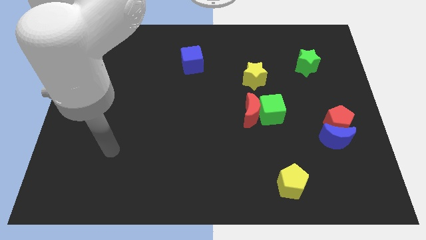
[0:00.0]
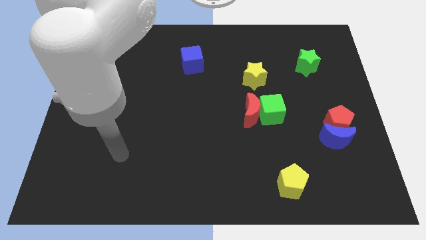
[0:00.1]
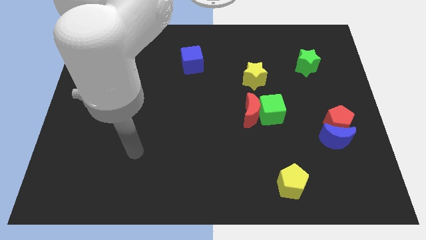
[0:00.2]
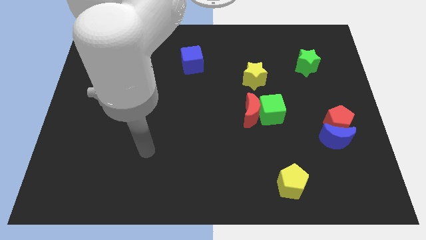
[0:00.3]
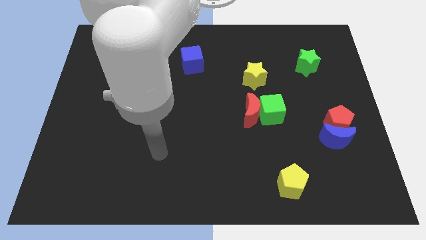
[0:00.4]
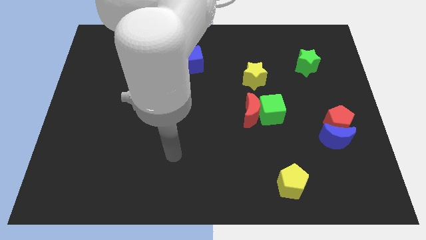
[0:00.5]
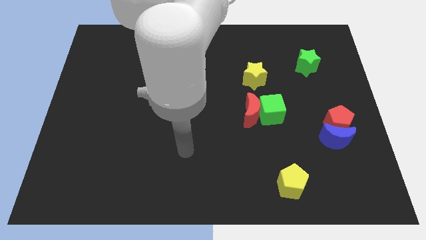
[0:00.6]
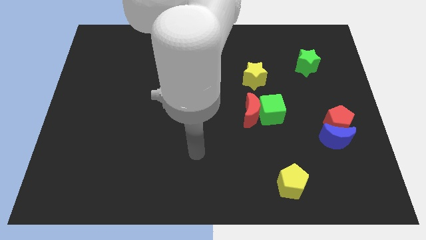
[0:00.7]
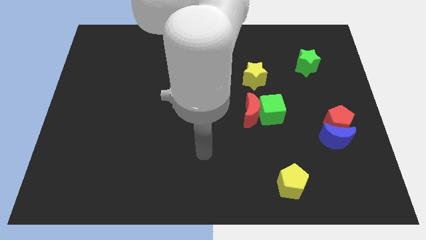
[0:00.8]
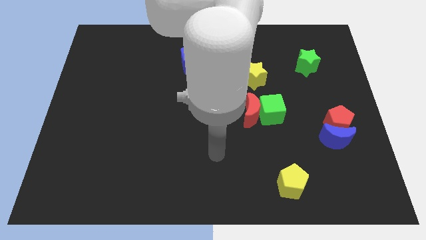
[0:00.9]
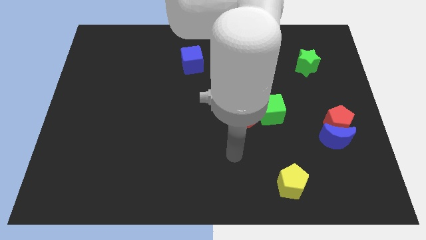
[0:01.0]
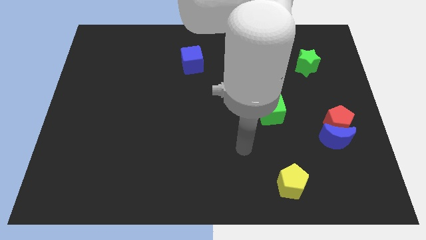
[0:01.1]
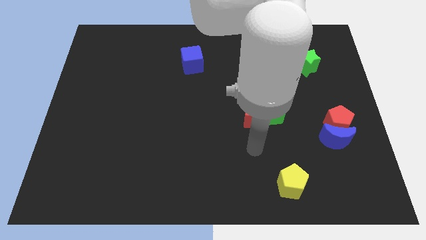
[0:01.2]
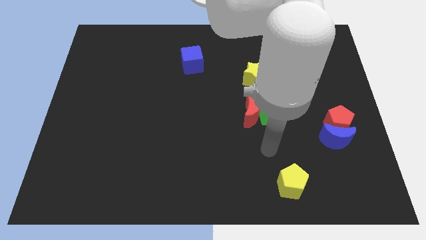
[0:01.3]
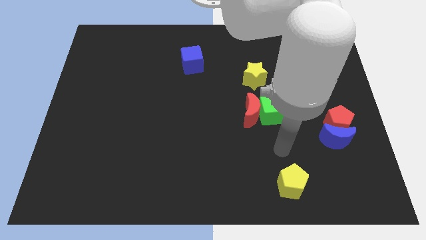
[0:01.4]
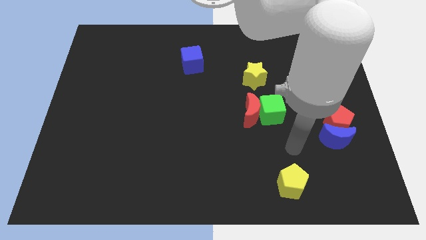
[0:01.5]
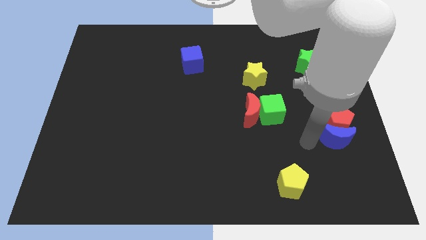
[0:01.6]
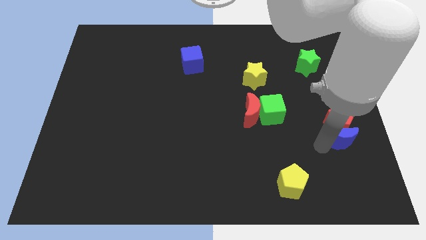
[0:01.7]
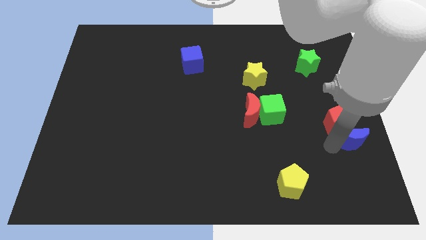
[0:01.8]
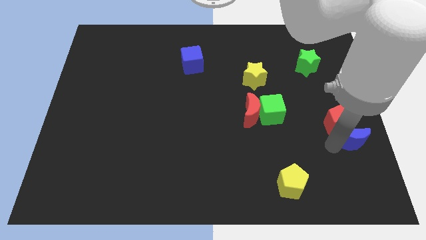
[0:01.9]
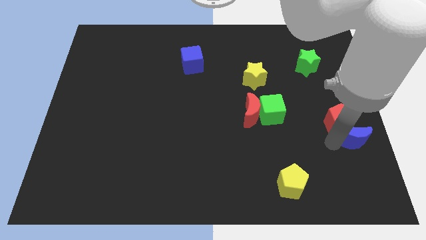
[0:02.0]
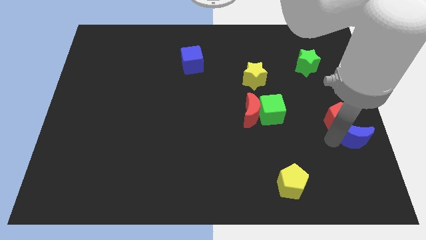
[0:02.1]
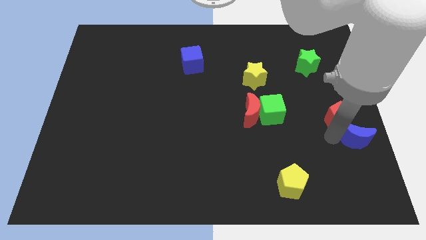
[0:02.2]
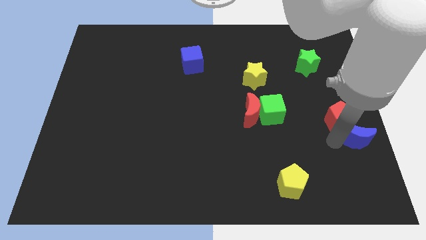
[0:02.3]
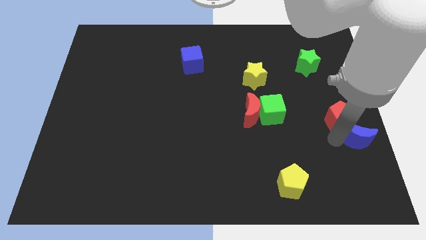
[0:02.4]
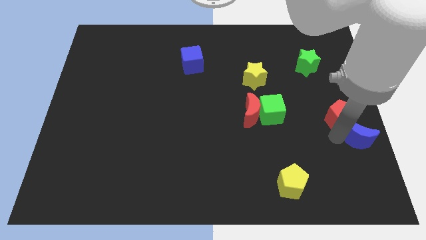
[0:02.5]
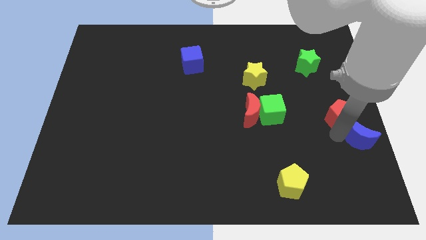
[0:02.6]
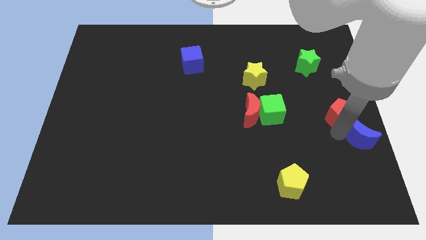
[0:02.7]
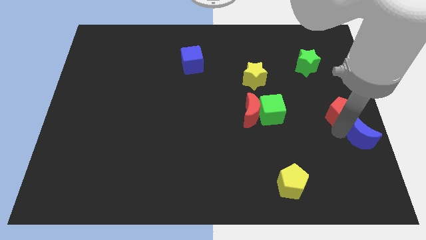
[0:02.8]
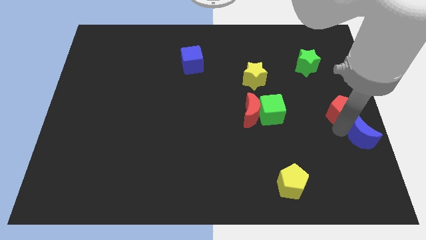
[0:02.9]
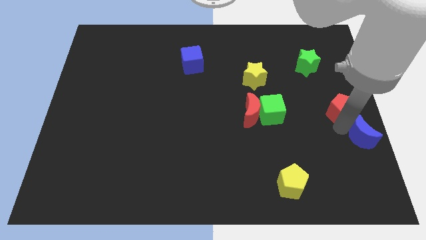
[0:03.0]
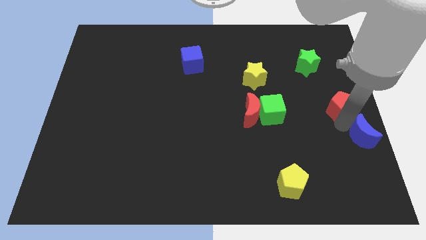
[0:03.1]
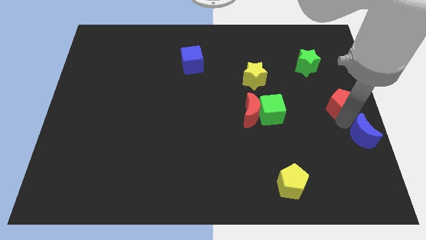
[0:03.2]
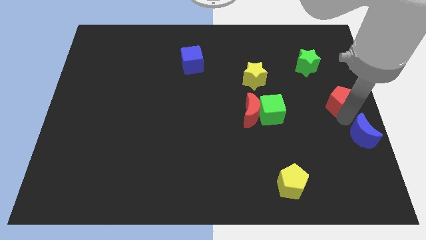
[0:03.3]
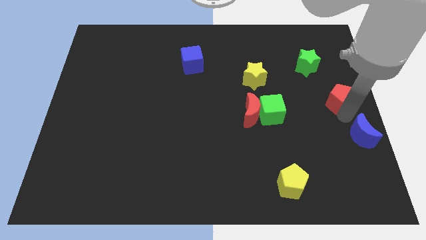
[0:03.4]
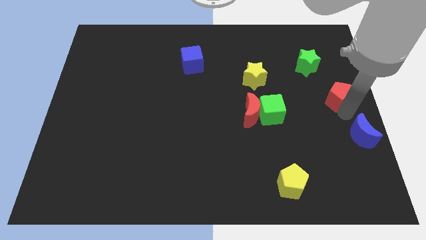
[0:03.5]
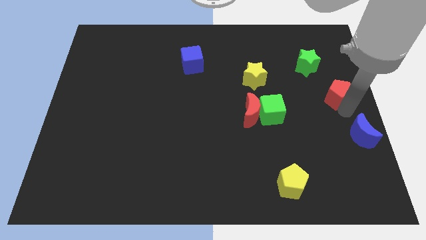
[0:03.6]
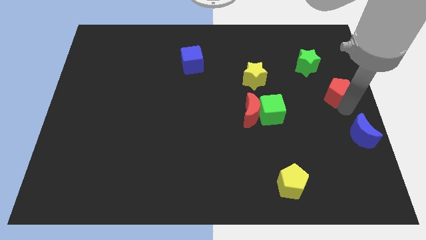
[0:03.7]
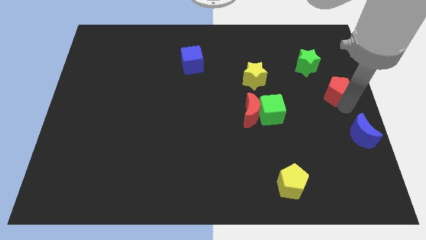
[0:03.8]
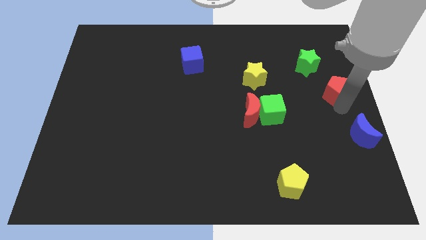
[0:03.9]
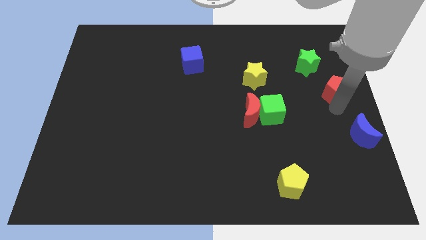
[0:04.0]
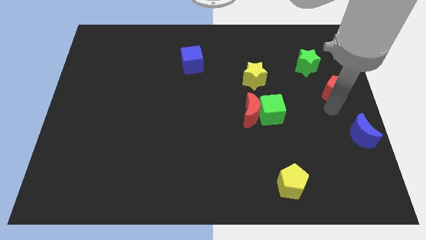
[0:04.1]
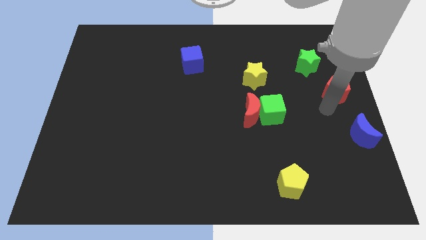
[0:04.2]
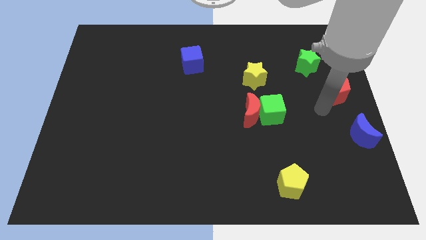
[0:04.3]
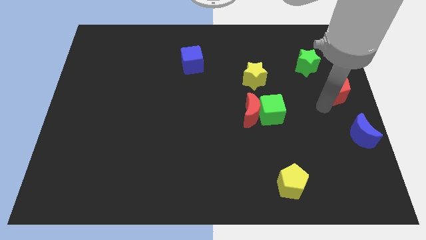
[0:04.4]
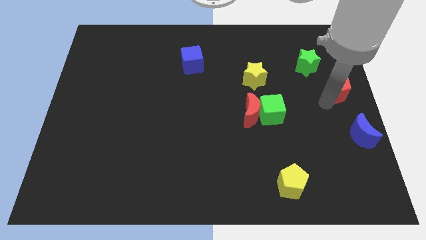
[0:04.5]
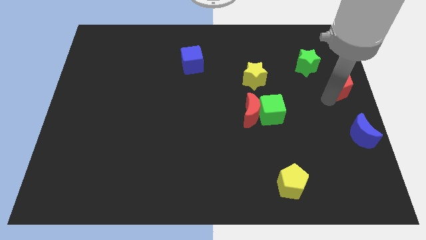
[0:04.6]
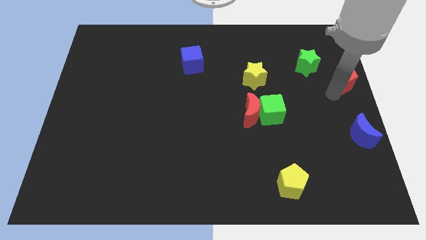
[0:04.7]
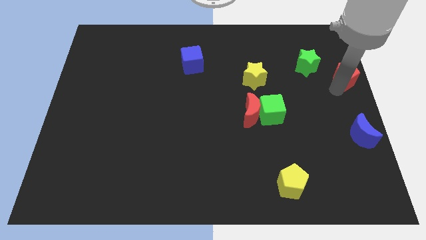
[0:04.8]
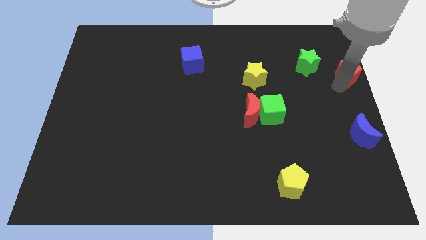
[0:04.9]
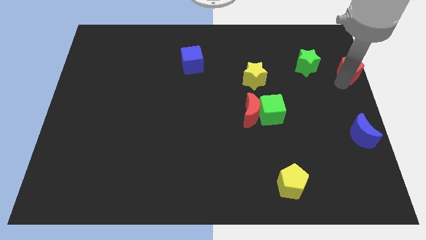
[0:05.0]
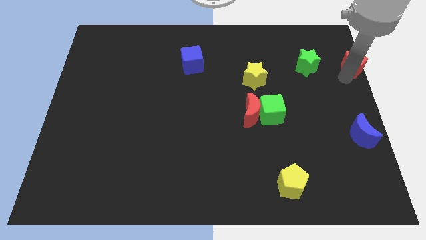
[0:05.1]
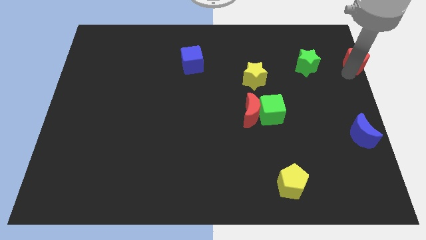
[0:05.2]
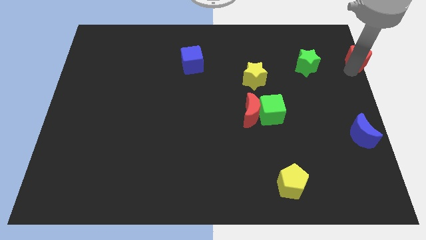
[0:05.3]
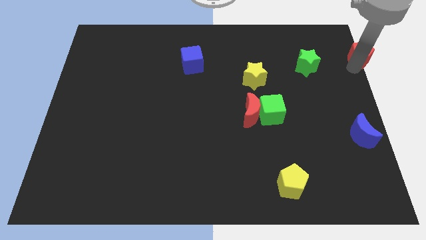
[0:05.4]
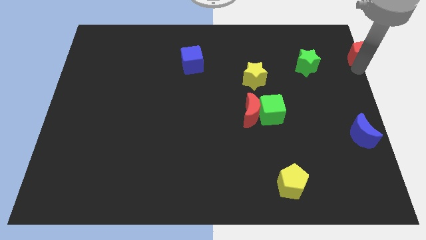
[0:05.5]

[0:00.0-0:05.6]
slide the red pentagon to the upper right corner

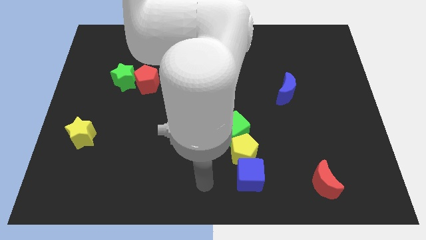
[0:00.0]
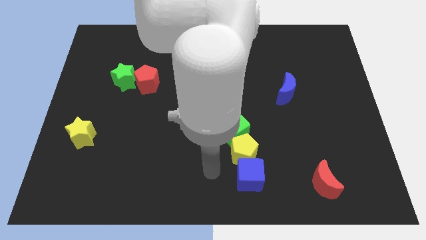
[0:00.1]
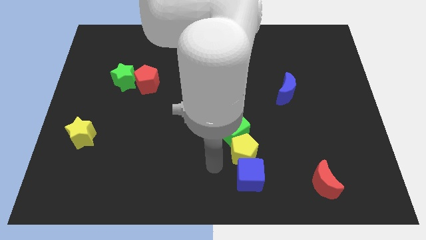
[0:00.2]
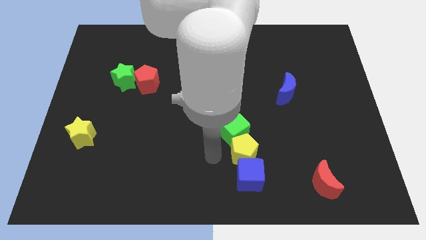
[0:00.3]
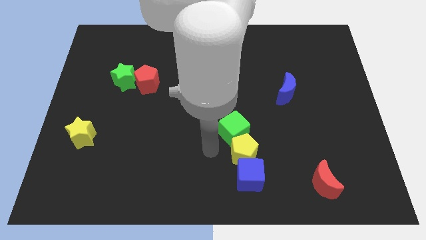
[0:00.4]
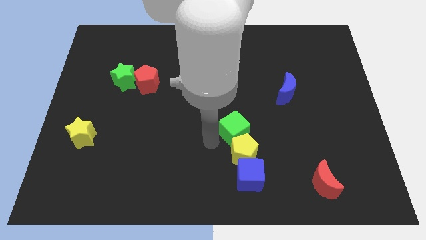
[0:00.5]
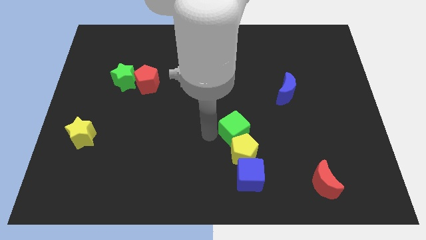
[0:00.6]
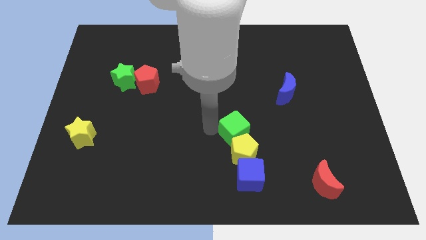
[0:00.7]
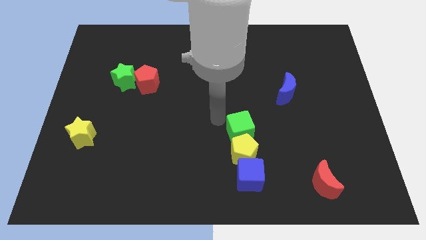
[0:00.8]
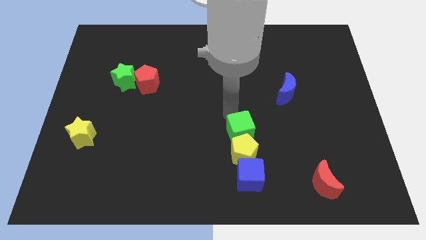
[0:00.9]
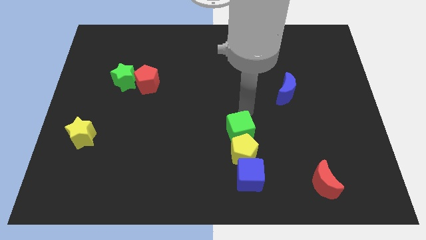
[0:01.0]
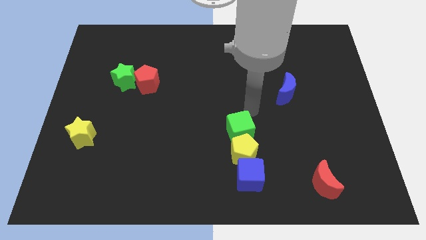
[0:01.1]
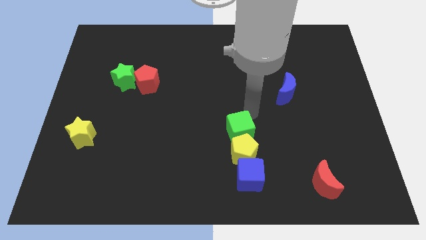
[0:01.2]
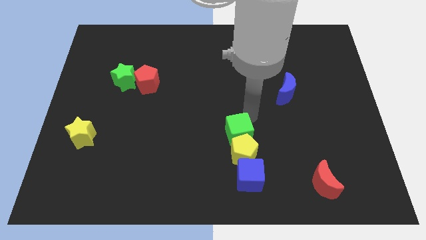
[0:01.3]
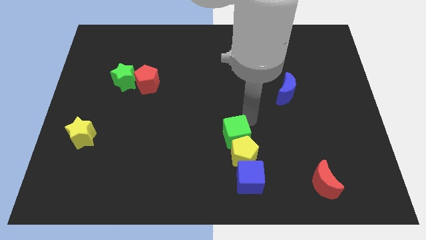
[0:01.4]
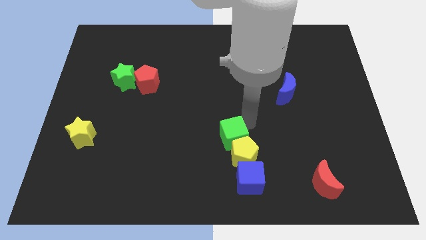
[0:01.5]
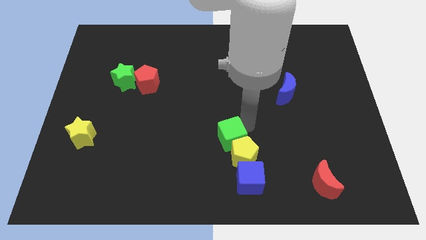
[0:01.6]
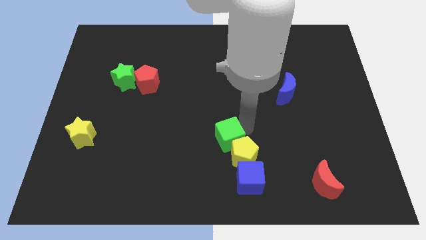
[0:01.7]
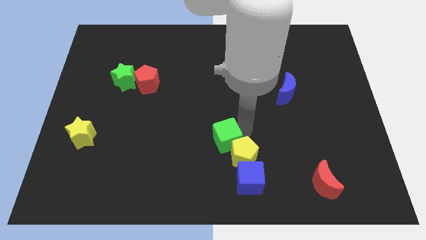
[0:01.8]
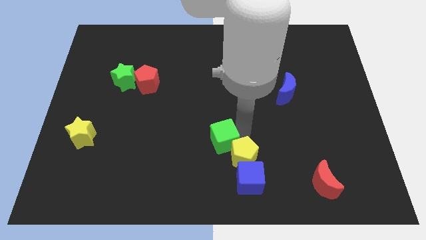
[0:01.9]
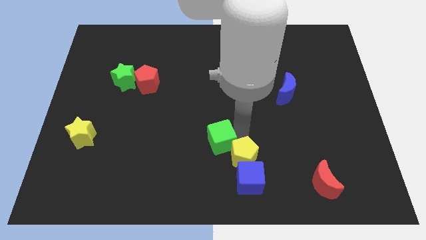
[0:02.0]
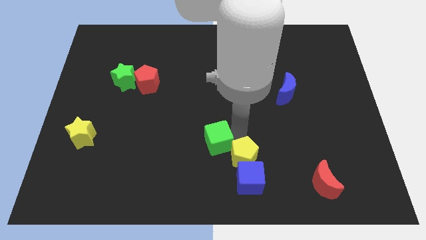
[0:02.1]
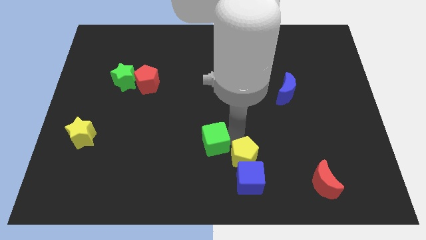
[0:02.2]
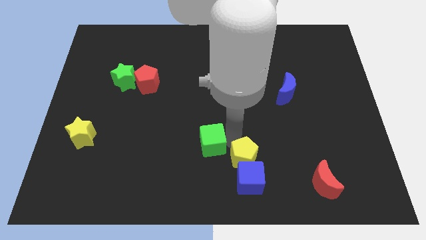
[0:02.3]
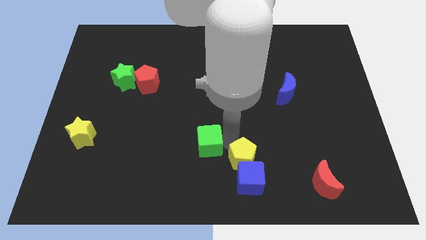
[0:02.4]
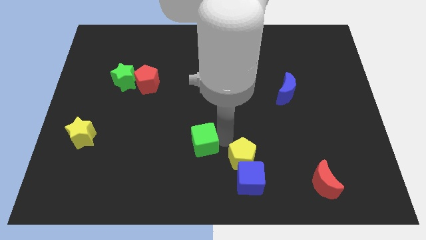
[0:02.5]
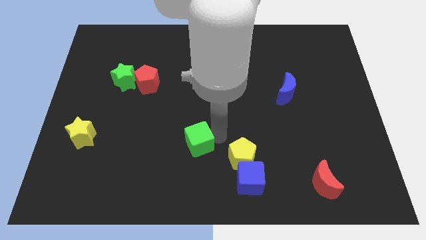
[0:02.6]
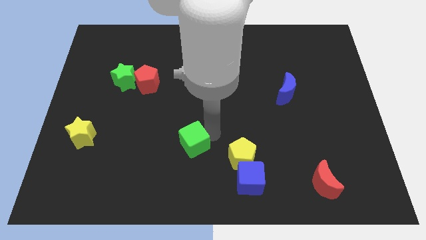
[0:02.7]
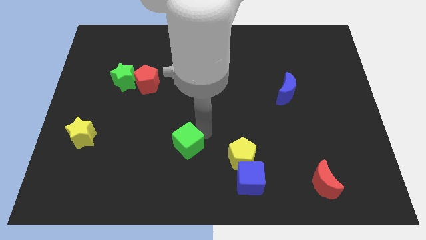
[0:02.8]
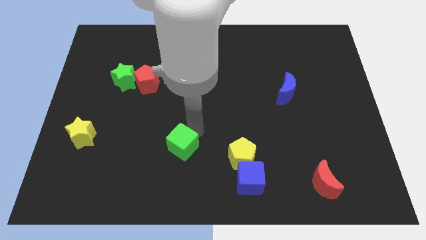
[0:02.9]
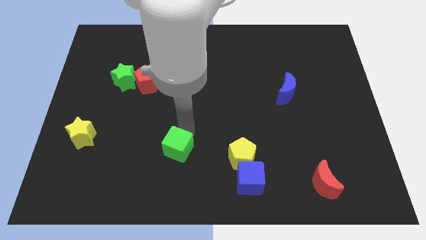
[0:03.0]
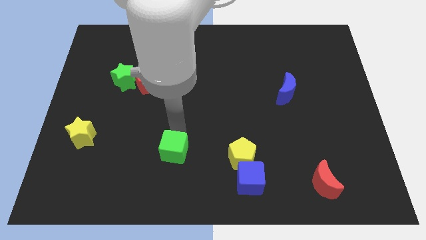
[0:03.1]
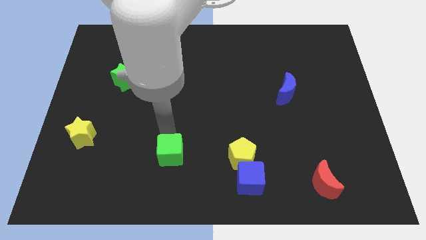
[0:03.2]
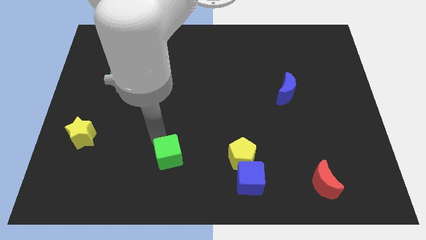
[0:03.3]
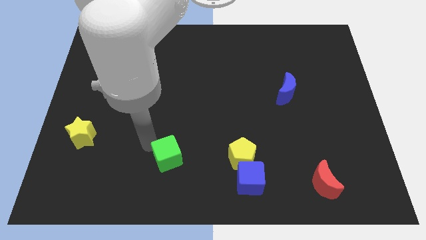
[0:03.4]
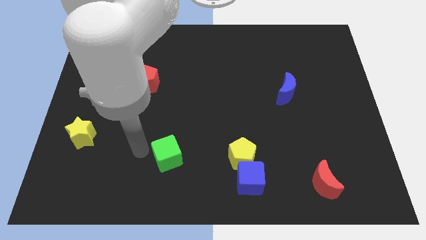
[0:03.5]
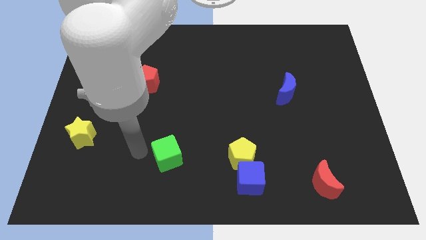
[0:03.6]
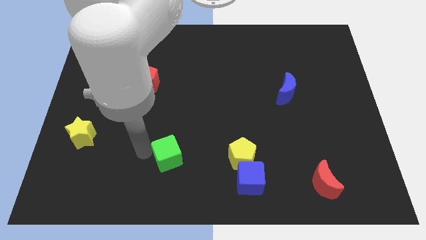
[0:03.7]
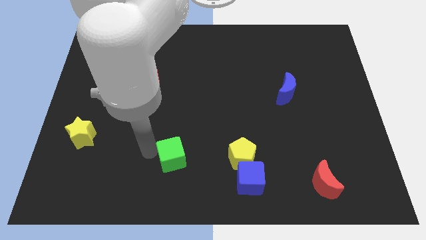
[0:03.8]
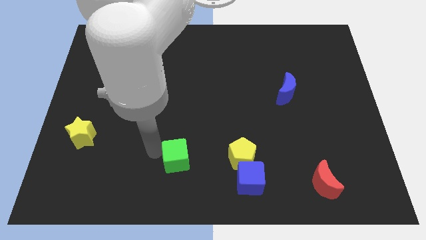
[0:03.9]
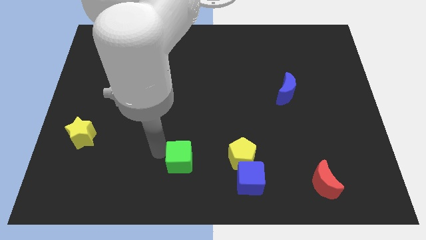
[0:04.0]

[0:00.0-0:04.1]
slide the green cube to the bottom
